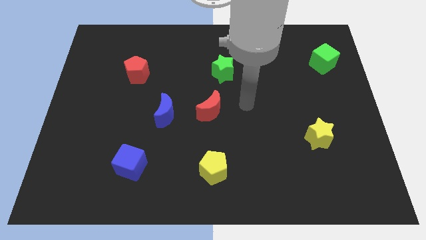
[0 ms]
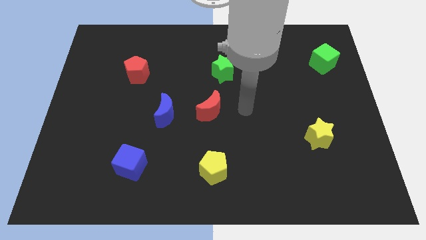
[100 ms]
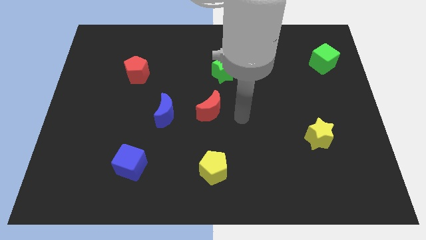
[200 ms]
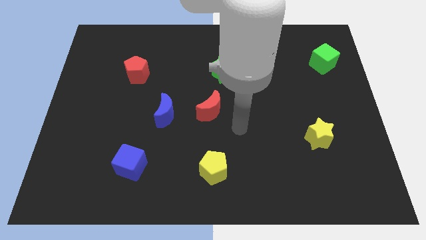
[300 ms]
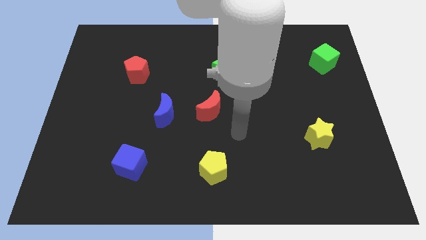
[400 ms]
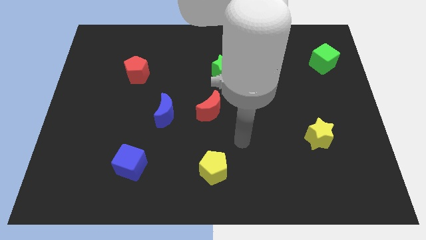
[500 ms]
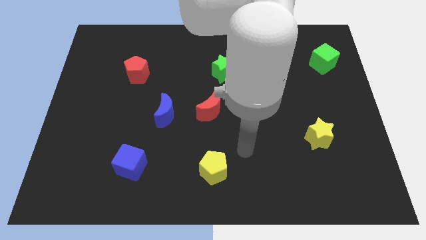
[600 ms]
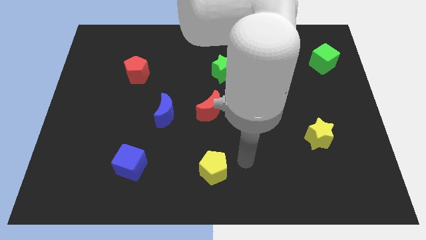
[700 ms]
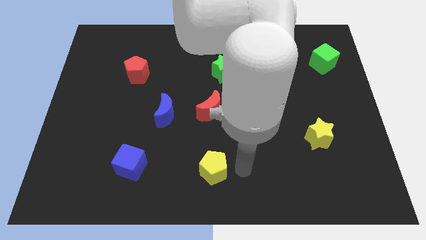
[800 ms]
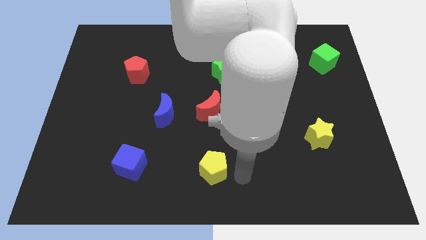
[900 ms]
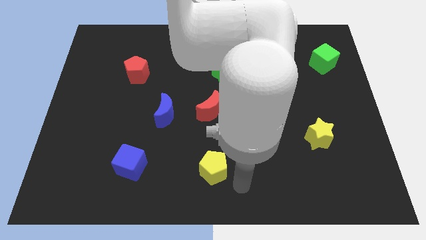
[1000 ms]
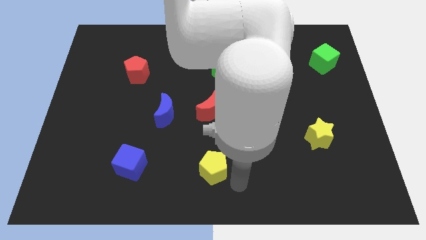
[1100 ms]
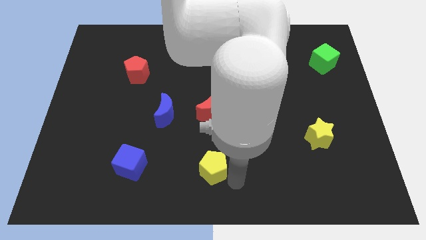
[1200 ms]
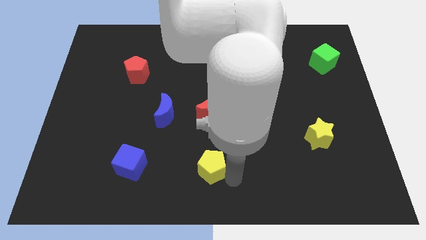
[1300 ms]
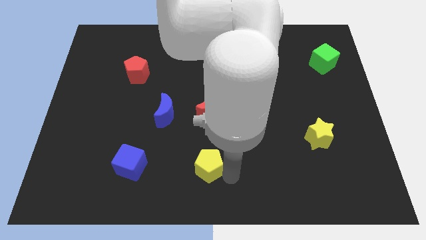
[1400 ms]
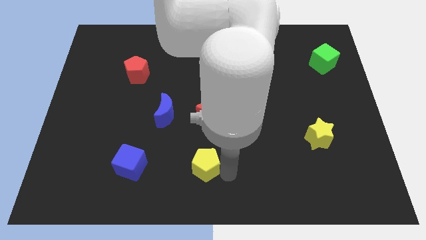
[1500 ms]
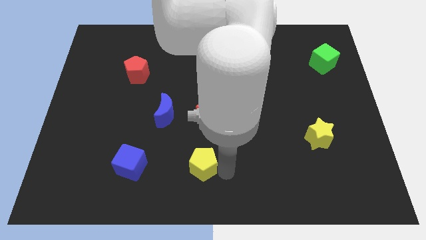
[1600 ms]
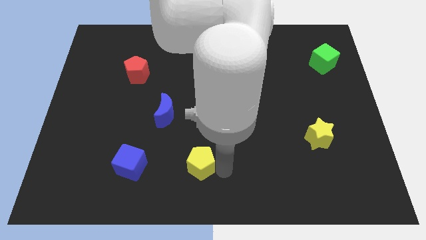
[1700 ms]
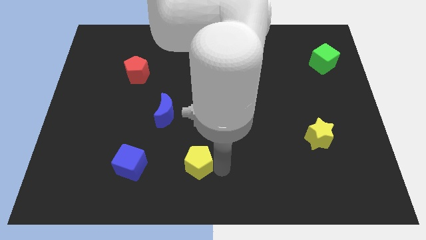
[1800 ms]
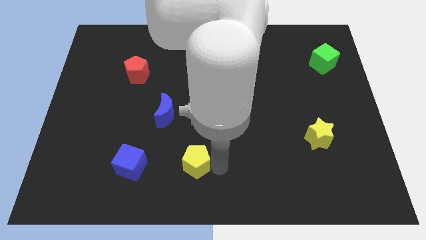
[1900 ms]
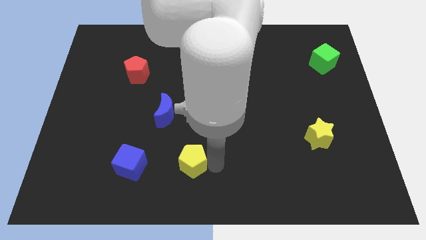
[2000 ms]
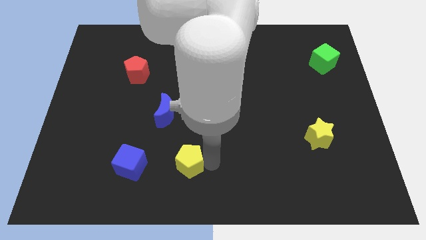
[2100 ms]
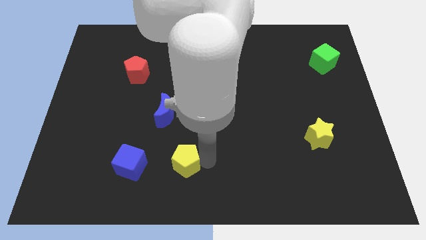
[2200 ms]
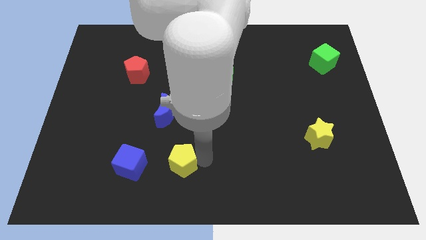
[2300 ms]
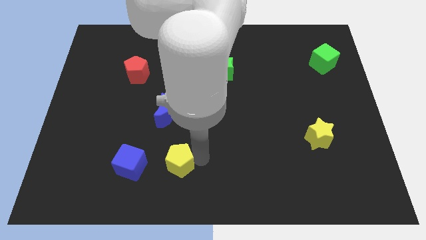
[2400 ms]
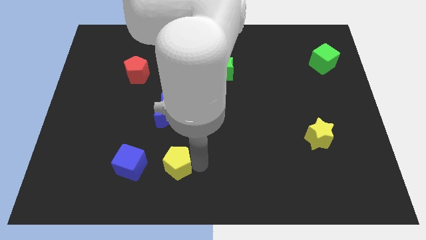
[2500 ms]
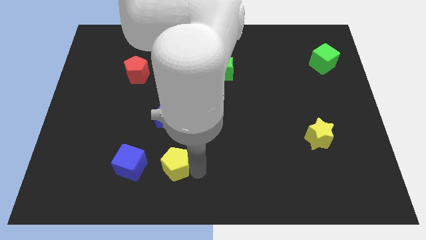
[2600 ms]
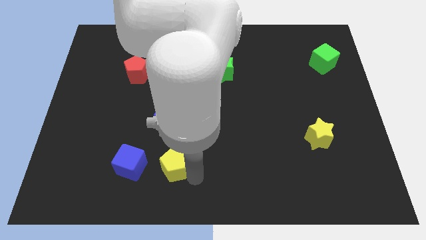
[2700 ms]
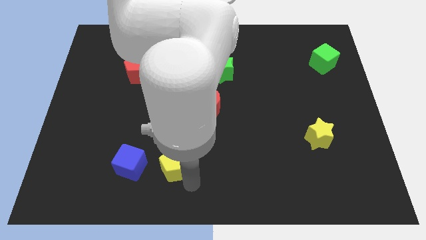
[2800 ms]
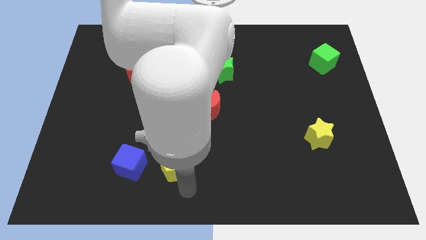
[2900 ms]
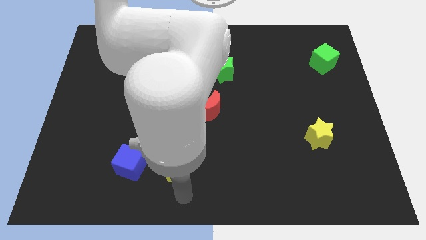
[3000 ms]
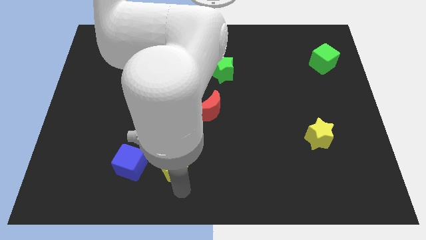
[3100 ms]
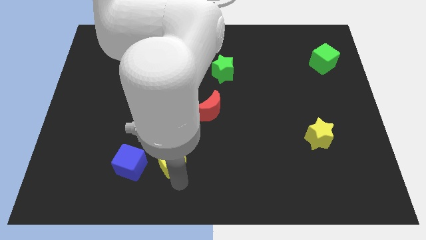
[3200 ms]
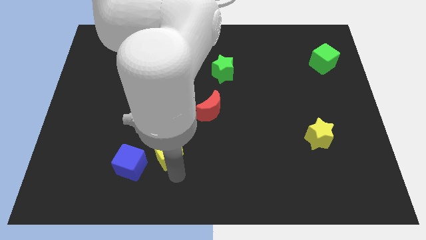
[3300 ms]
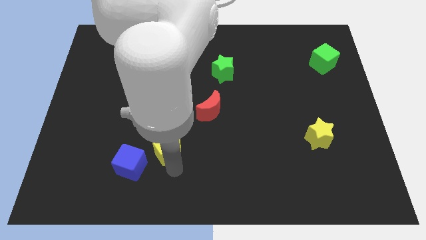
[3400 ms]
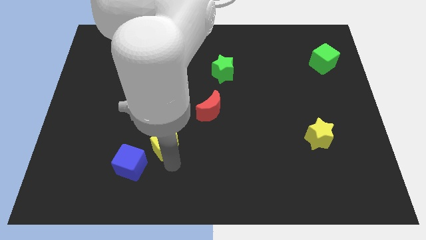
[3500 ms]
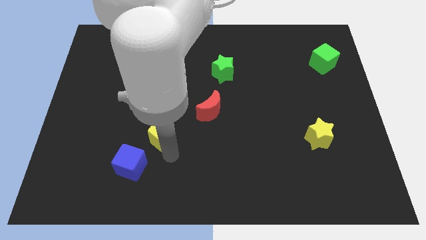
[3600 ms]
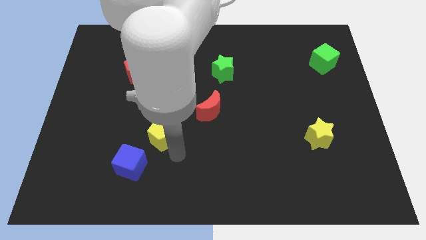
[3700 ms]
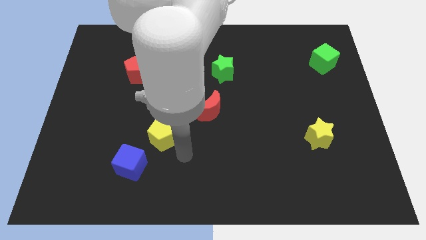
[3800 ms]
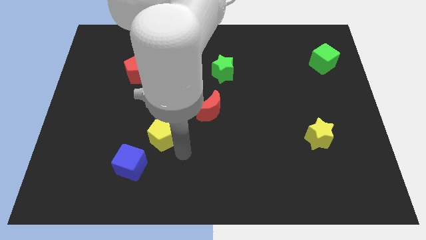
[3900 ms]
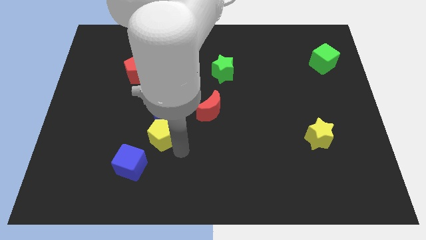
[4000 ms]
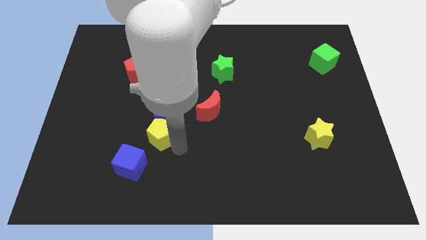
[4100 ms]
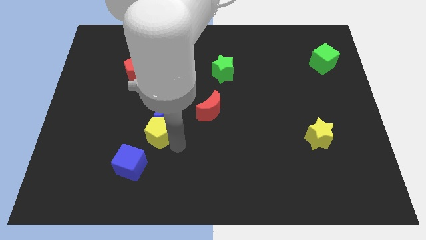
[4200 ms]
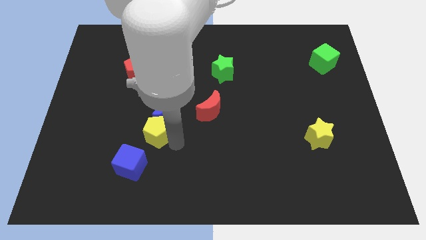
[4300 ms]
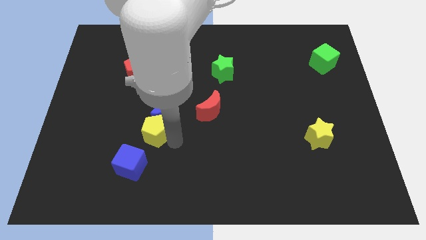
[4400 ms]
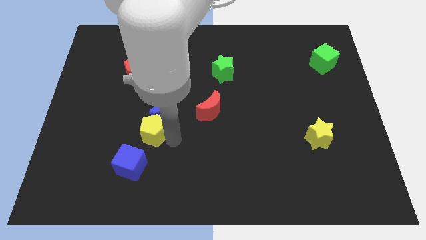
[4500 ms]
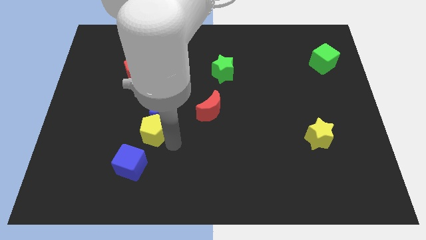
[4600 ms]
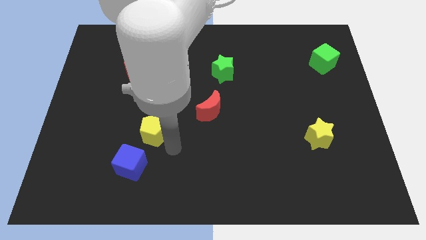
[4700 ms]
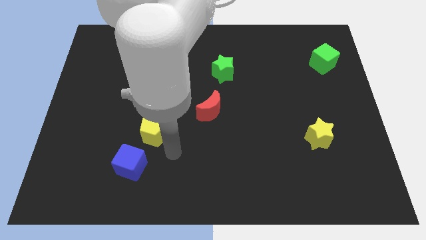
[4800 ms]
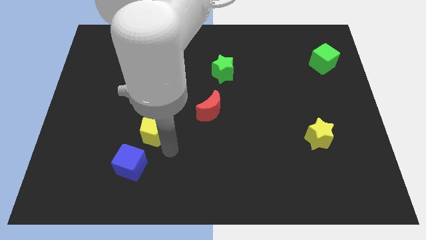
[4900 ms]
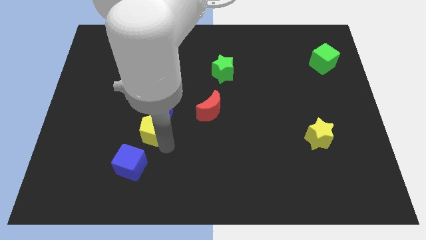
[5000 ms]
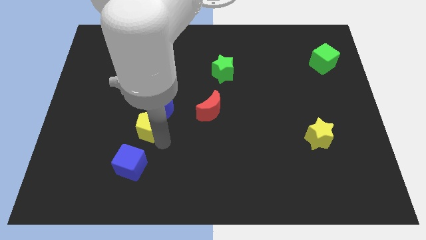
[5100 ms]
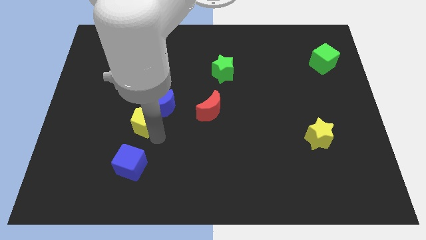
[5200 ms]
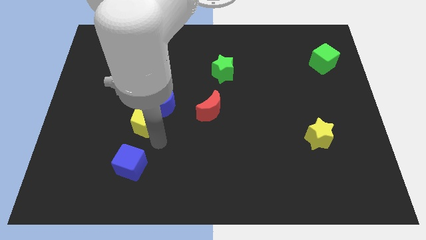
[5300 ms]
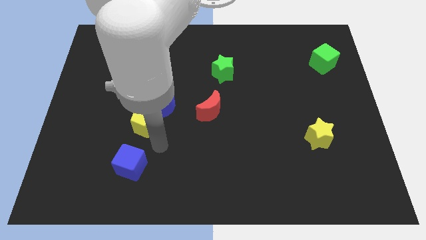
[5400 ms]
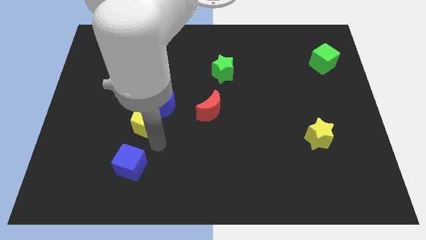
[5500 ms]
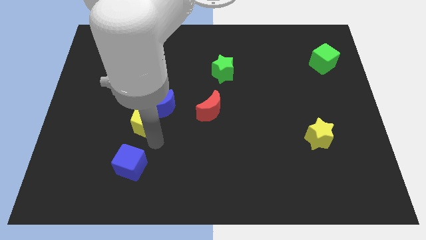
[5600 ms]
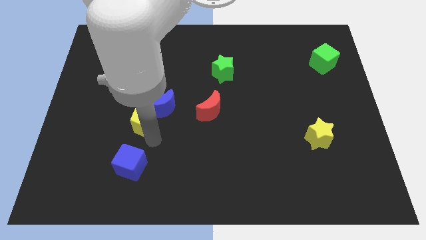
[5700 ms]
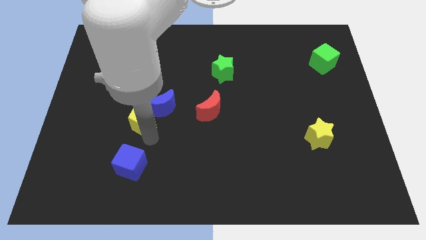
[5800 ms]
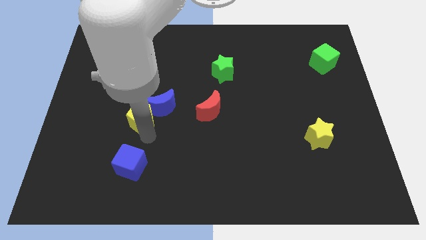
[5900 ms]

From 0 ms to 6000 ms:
push the yellow pentagon diagonally upwards and left

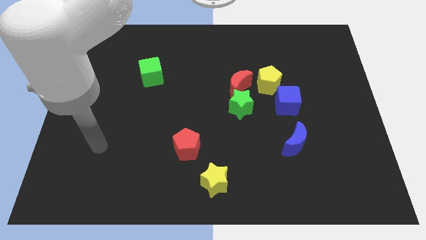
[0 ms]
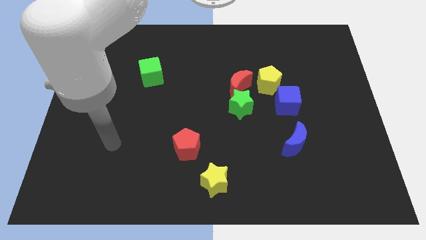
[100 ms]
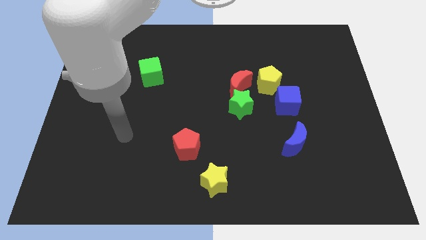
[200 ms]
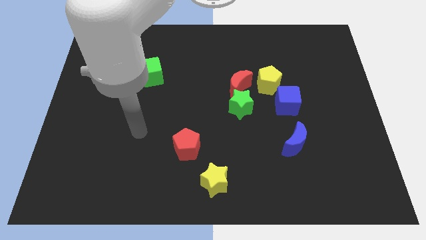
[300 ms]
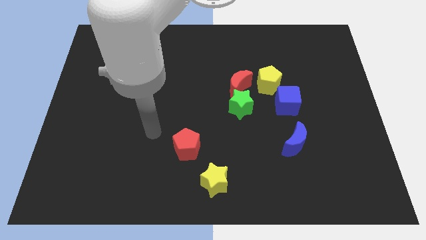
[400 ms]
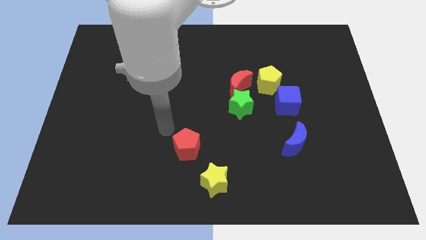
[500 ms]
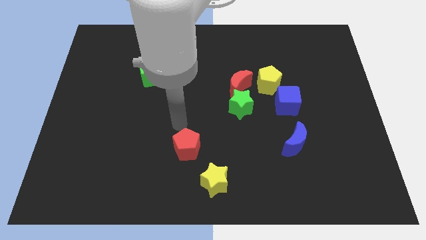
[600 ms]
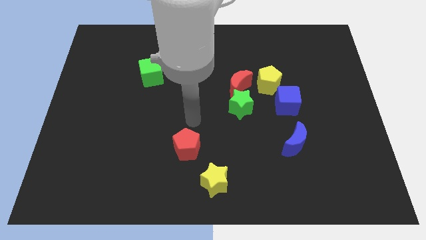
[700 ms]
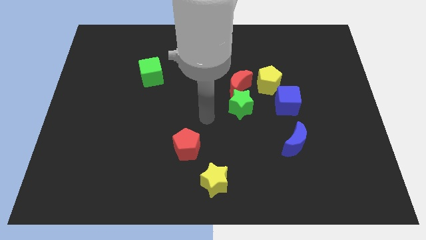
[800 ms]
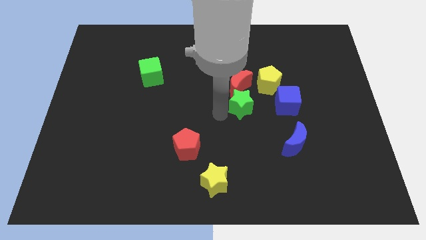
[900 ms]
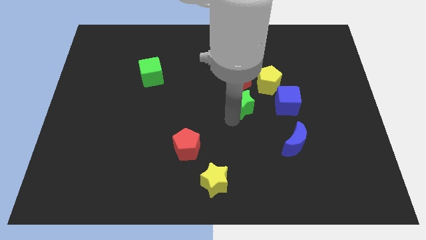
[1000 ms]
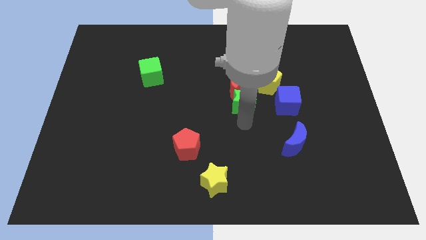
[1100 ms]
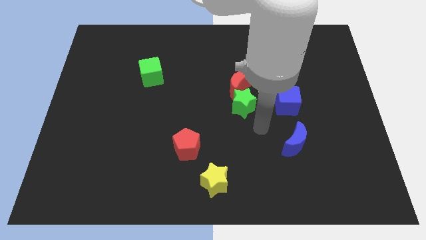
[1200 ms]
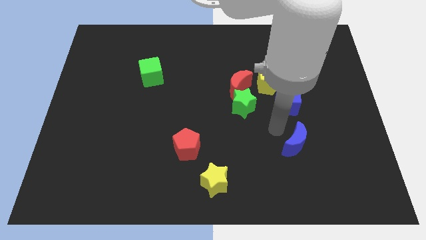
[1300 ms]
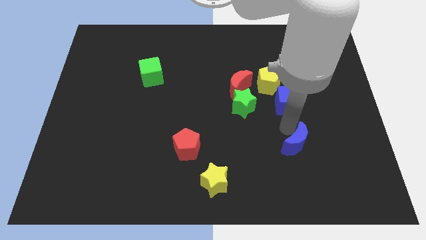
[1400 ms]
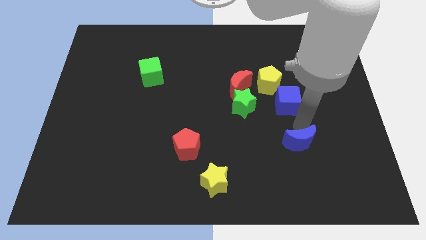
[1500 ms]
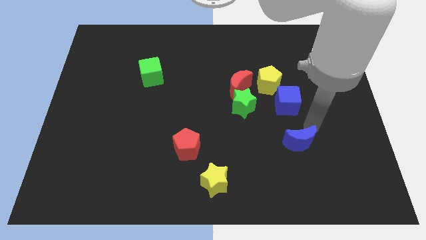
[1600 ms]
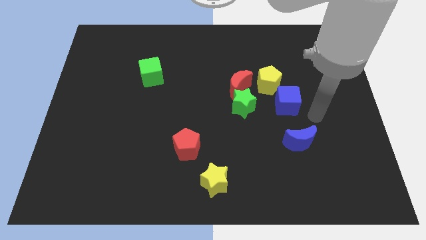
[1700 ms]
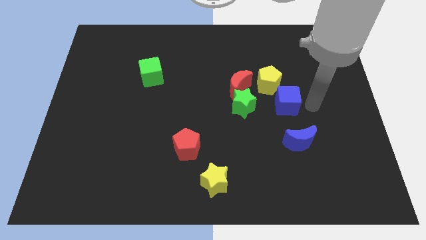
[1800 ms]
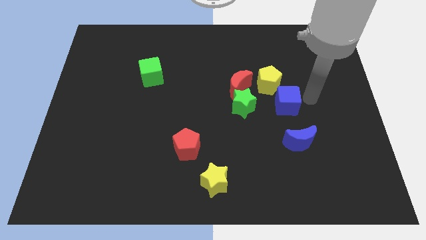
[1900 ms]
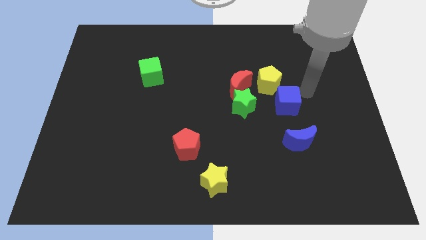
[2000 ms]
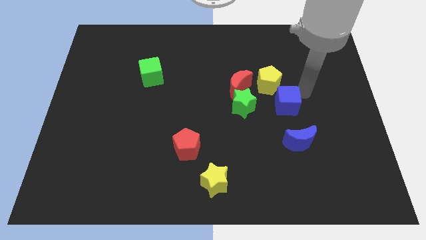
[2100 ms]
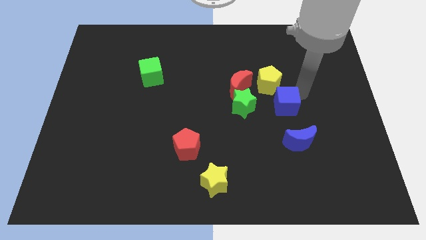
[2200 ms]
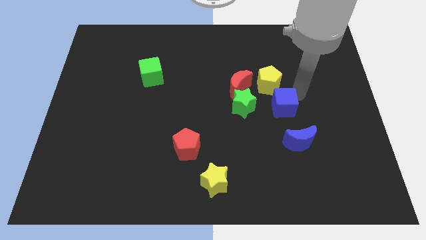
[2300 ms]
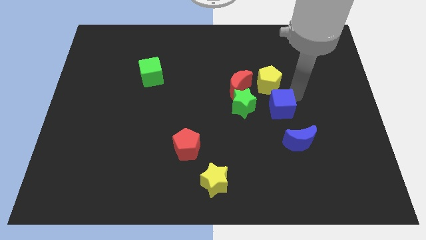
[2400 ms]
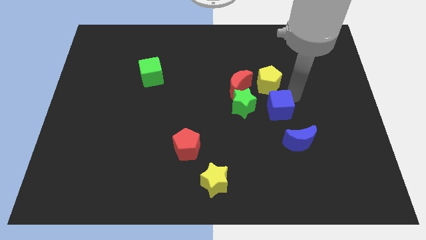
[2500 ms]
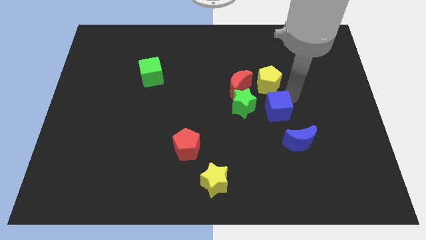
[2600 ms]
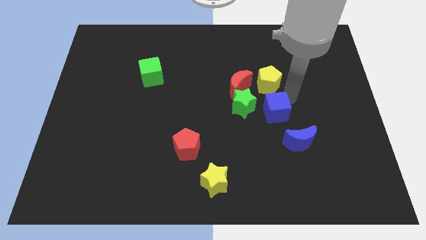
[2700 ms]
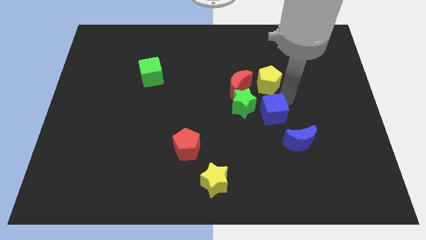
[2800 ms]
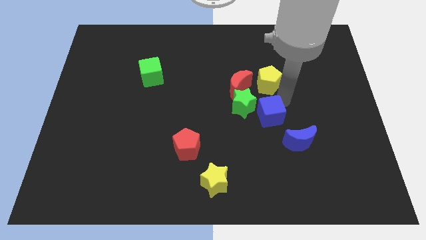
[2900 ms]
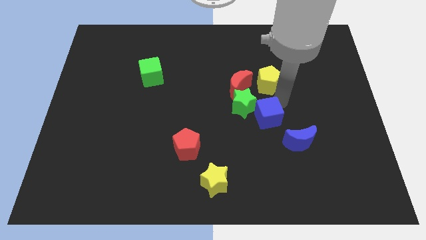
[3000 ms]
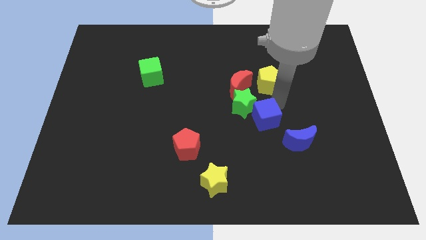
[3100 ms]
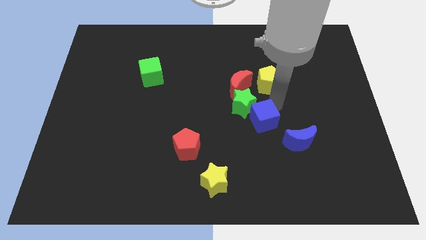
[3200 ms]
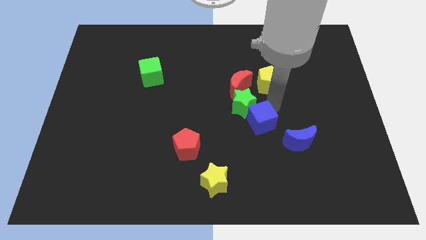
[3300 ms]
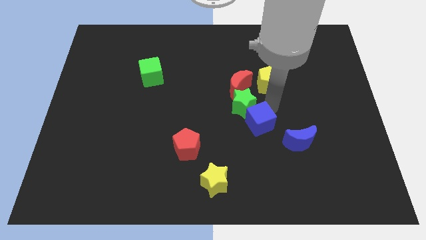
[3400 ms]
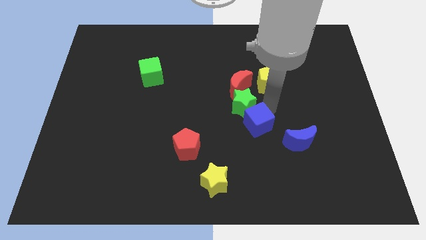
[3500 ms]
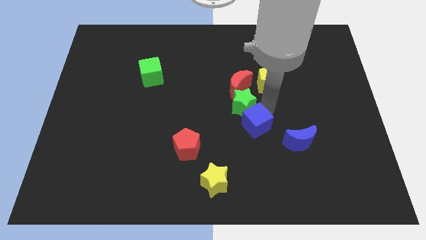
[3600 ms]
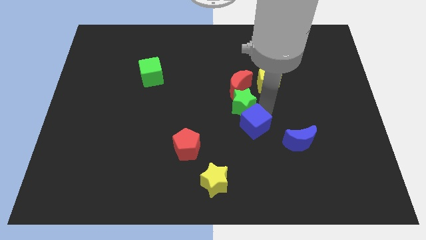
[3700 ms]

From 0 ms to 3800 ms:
move the blue cube left a bit
